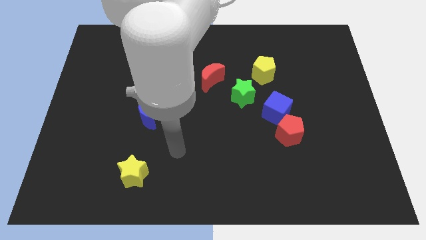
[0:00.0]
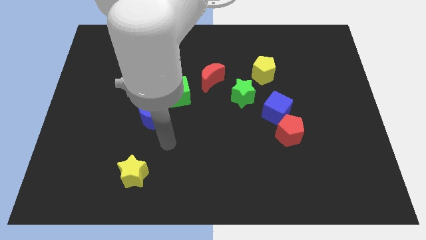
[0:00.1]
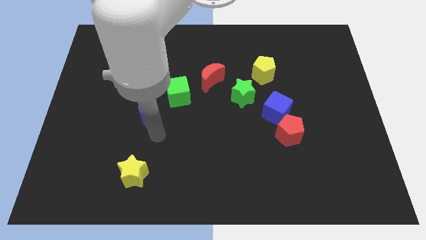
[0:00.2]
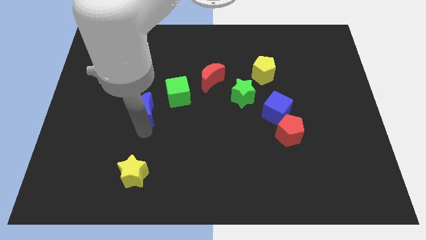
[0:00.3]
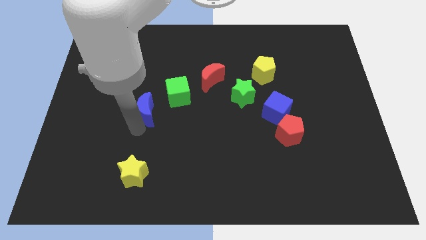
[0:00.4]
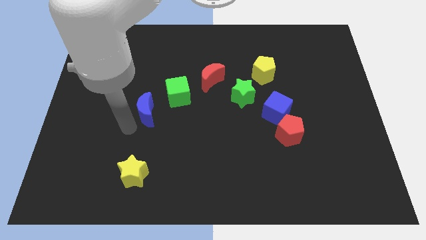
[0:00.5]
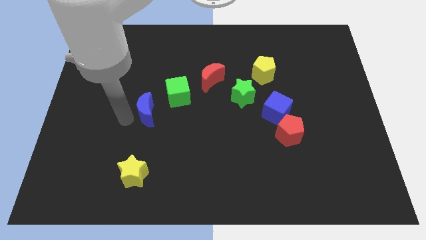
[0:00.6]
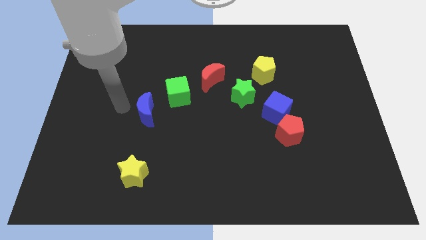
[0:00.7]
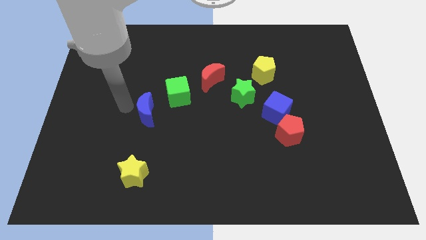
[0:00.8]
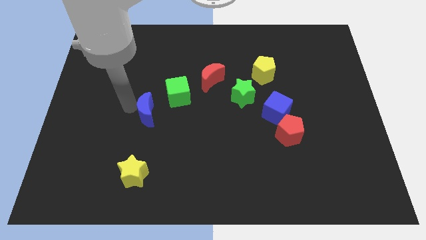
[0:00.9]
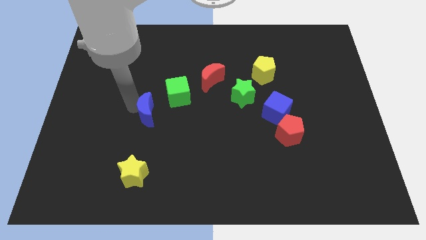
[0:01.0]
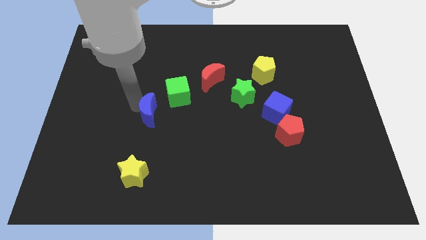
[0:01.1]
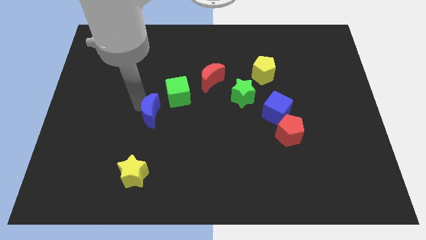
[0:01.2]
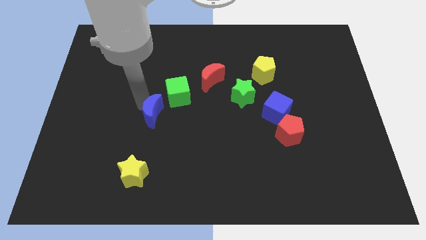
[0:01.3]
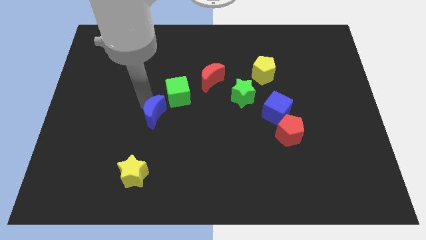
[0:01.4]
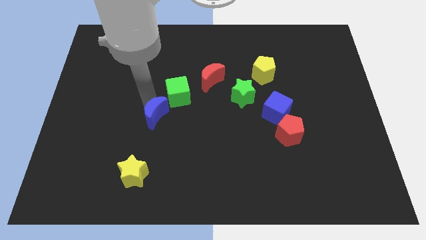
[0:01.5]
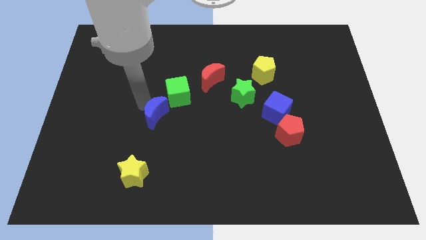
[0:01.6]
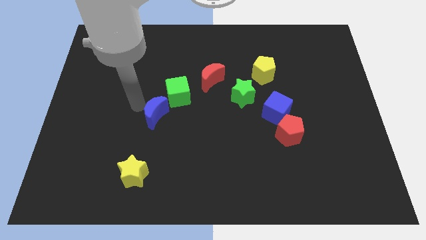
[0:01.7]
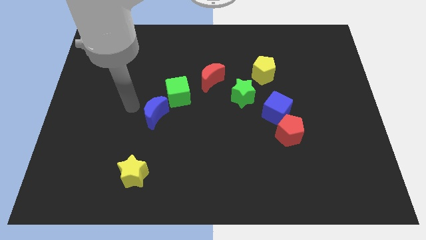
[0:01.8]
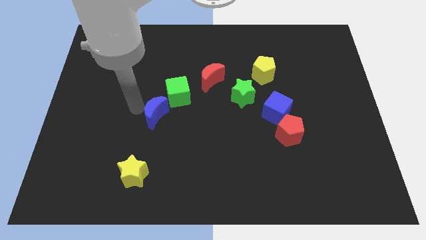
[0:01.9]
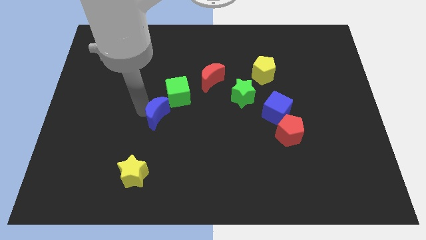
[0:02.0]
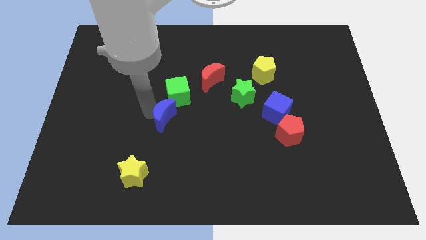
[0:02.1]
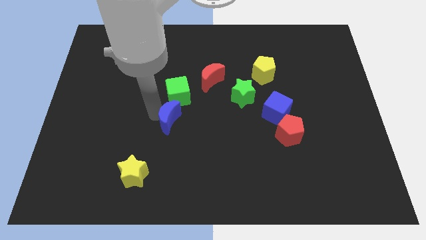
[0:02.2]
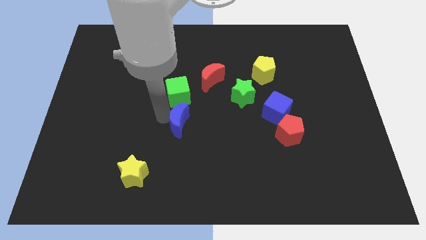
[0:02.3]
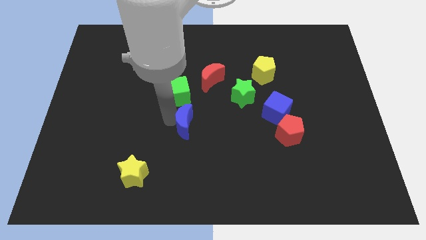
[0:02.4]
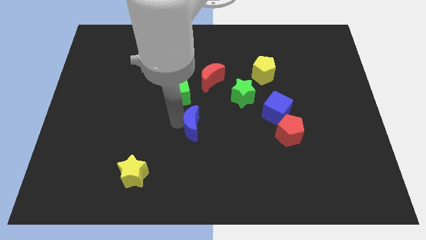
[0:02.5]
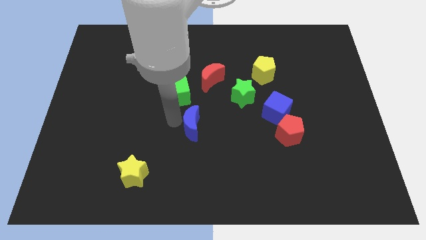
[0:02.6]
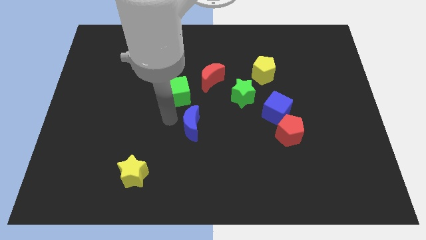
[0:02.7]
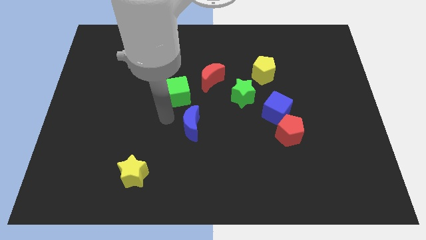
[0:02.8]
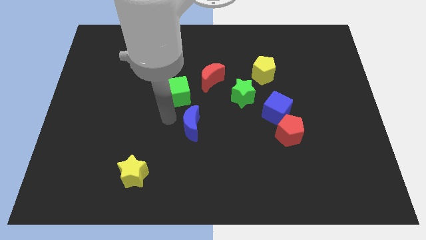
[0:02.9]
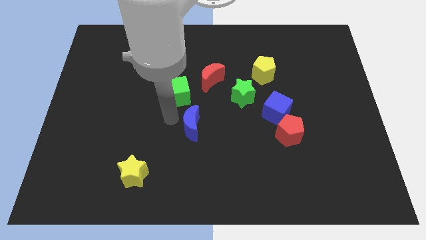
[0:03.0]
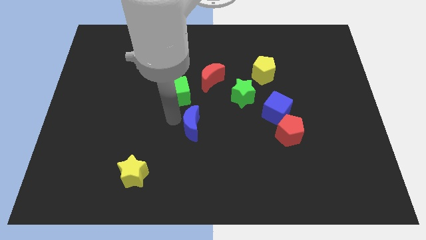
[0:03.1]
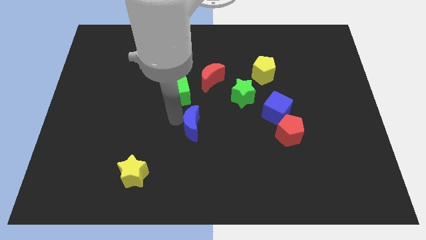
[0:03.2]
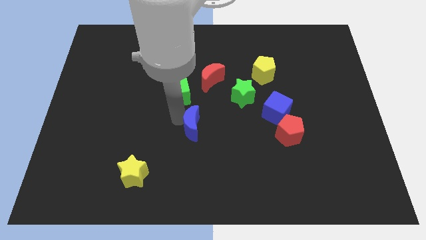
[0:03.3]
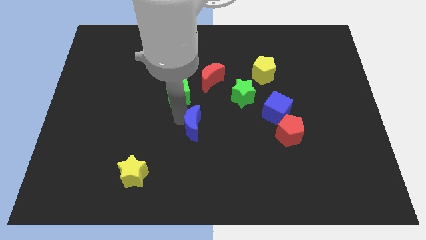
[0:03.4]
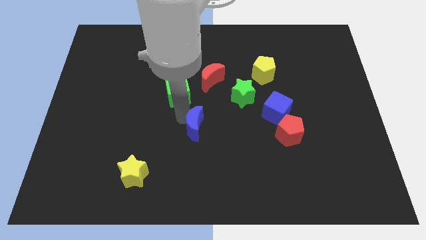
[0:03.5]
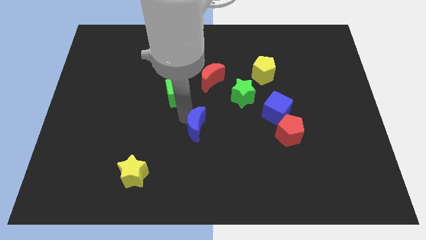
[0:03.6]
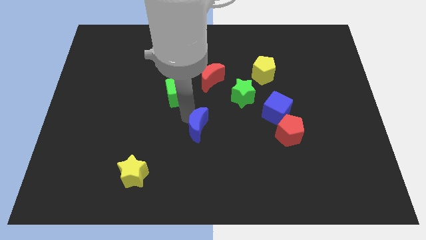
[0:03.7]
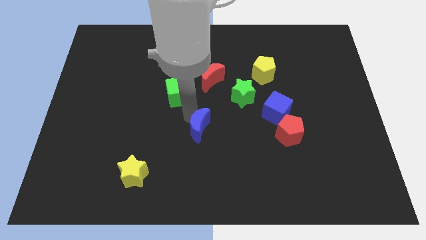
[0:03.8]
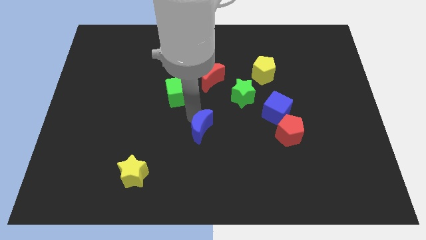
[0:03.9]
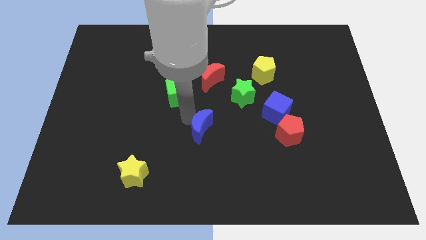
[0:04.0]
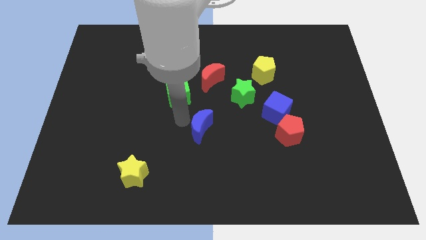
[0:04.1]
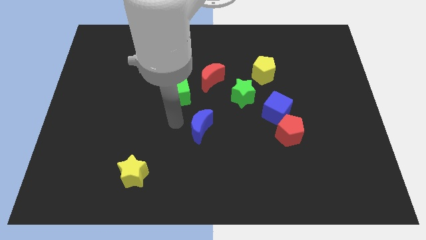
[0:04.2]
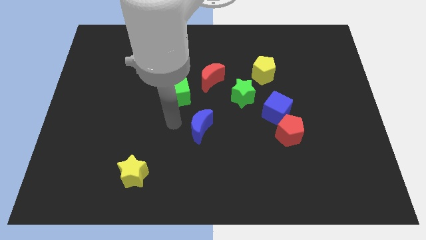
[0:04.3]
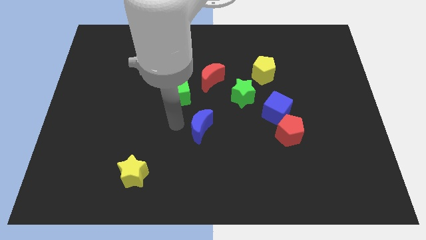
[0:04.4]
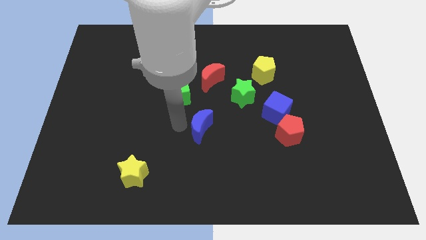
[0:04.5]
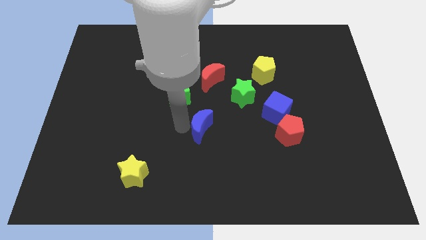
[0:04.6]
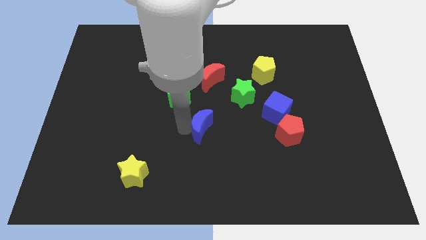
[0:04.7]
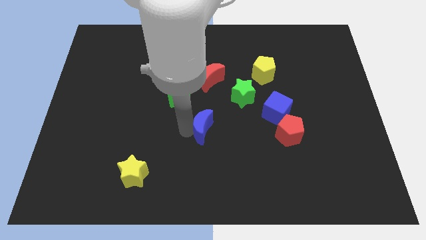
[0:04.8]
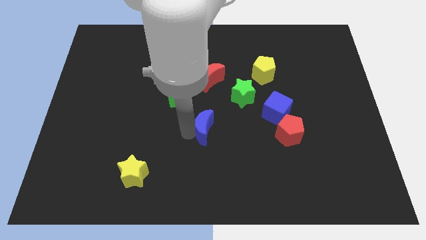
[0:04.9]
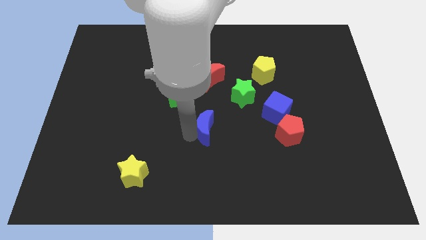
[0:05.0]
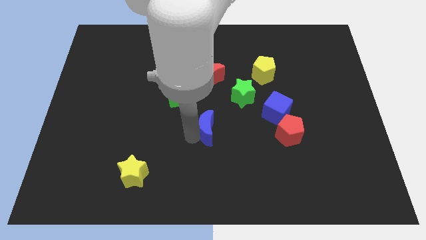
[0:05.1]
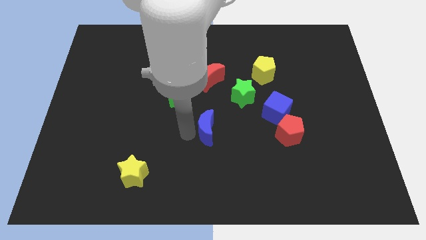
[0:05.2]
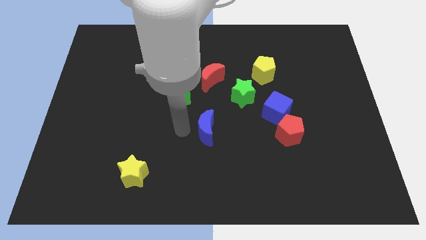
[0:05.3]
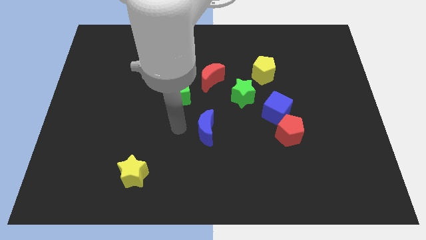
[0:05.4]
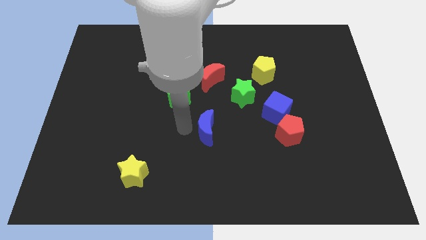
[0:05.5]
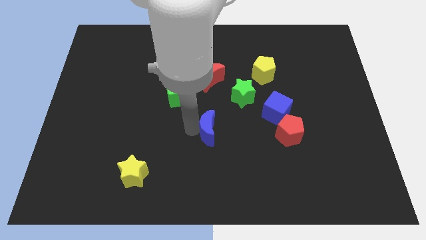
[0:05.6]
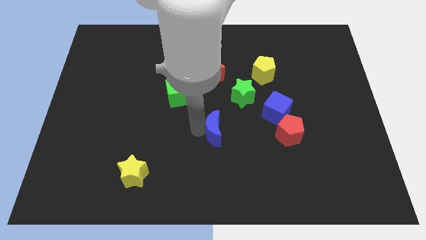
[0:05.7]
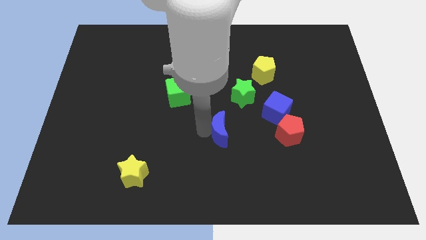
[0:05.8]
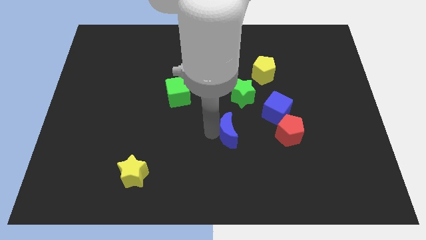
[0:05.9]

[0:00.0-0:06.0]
slide the blue moon to the bottom of the green star

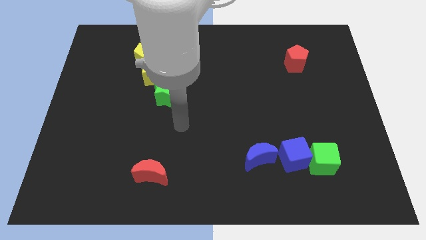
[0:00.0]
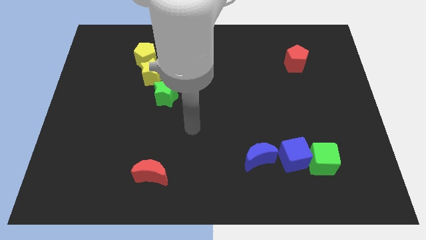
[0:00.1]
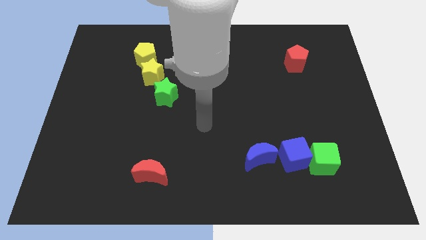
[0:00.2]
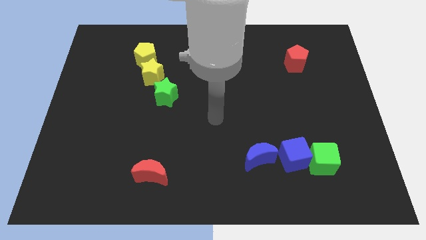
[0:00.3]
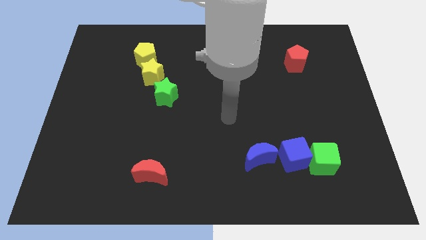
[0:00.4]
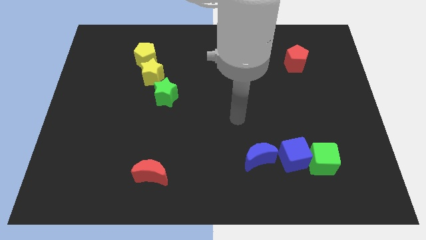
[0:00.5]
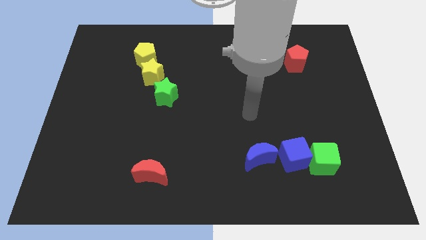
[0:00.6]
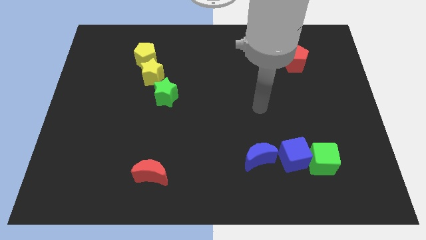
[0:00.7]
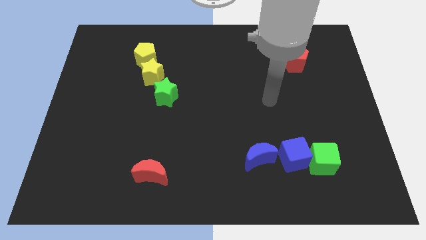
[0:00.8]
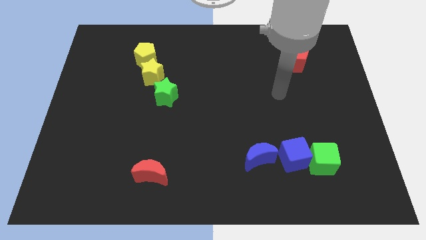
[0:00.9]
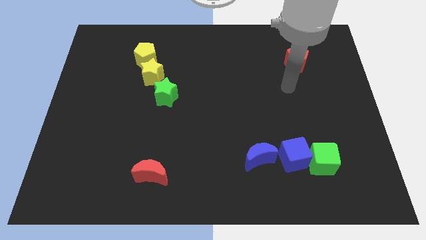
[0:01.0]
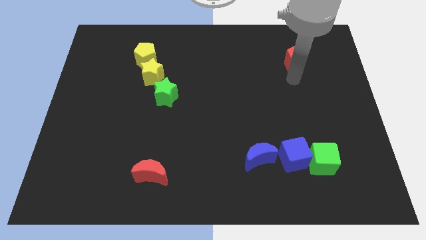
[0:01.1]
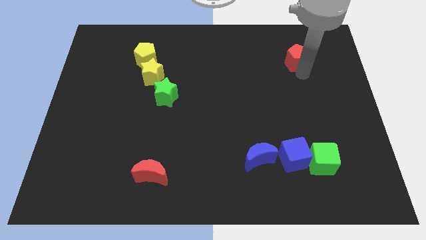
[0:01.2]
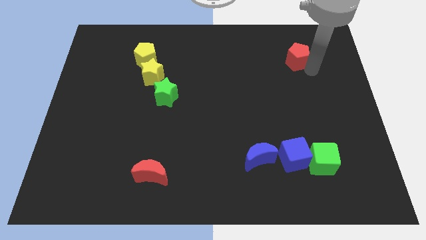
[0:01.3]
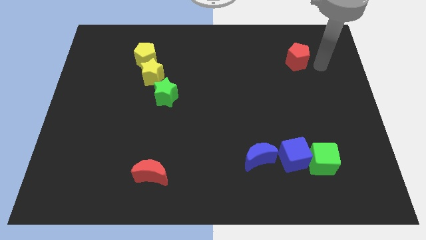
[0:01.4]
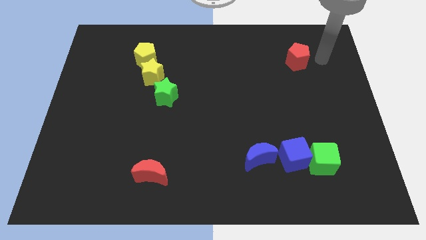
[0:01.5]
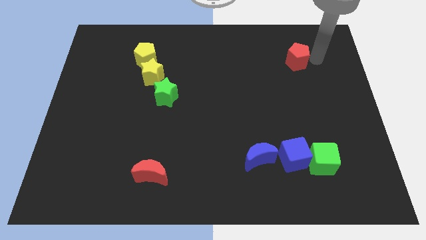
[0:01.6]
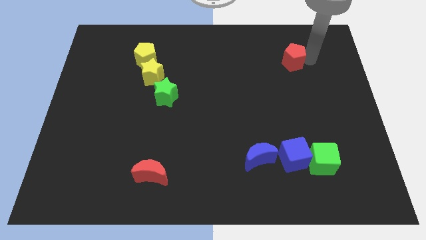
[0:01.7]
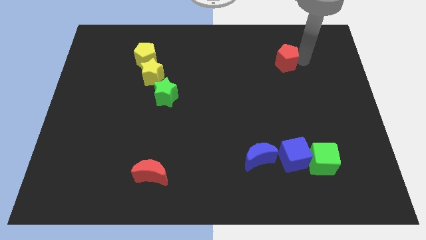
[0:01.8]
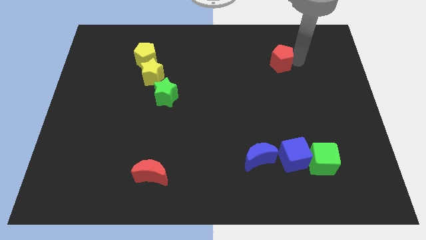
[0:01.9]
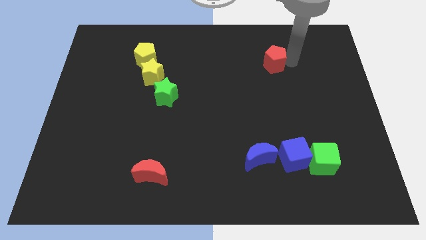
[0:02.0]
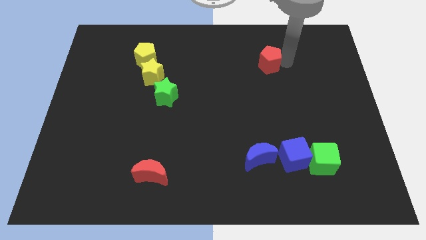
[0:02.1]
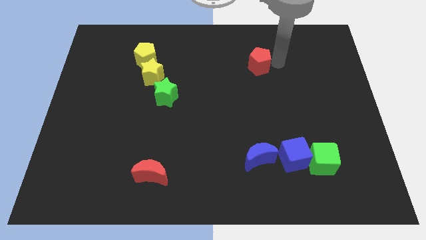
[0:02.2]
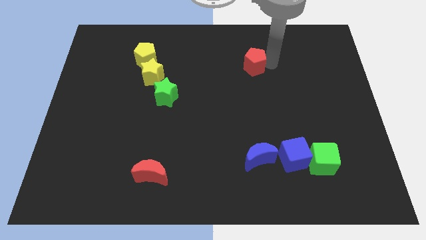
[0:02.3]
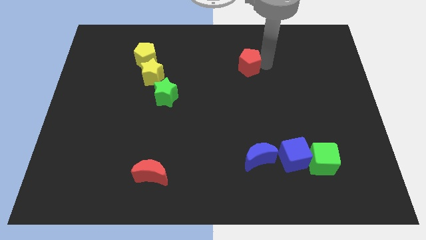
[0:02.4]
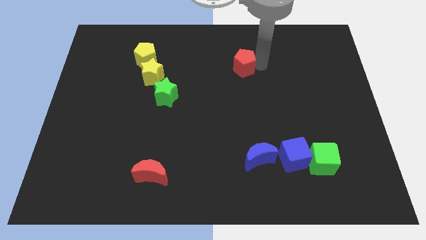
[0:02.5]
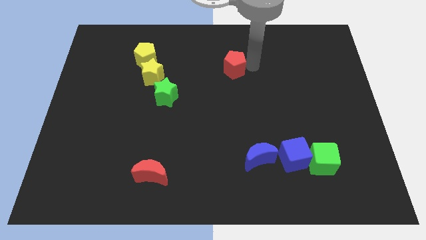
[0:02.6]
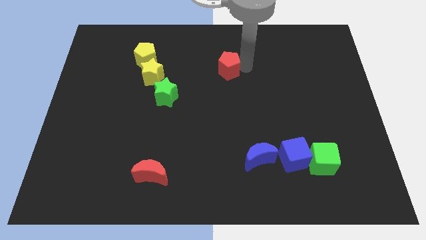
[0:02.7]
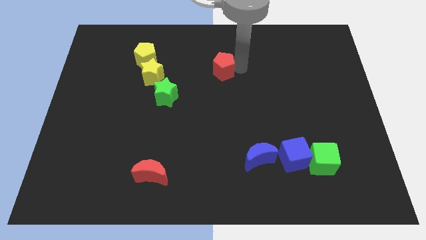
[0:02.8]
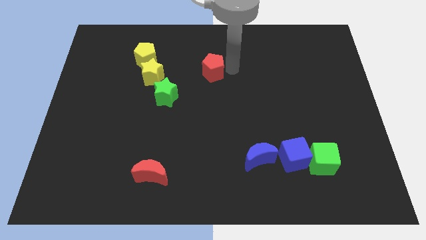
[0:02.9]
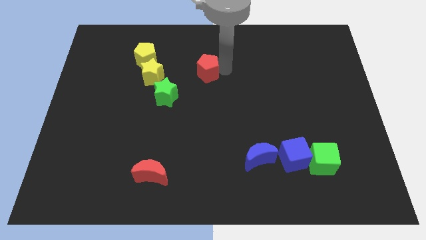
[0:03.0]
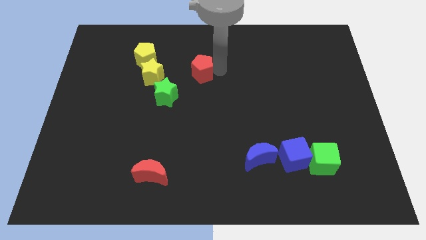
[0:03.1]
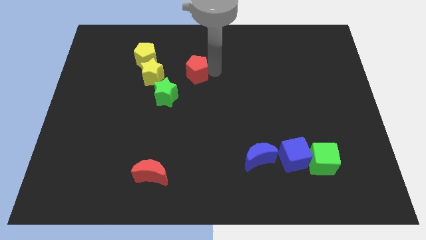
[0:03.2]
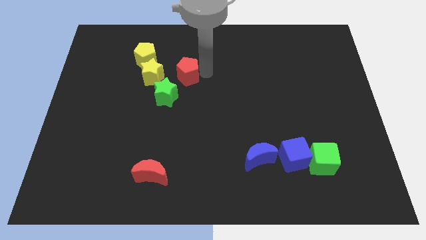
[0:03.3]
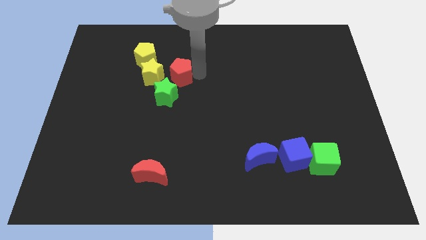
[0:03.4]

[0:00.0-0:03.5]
move the red pentagon diagonally down and to the right of the yellow pentagon
